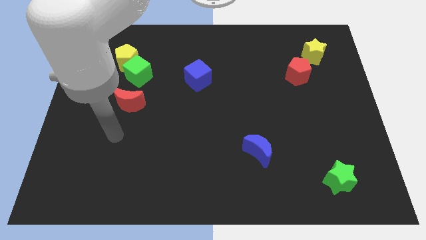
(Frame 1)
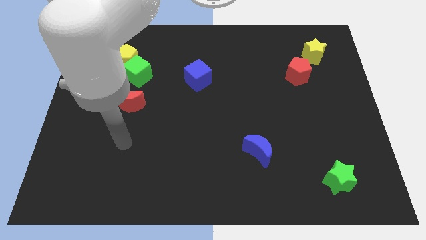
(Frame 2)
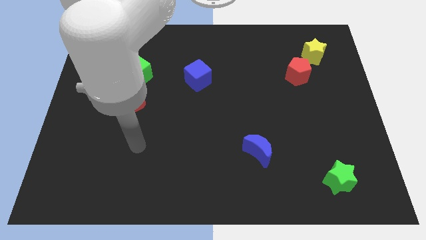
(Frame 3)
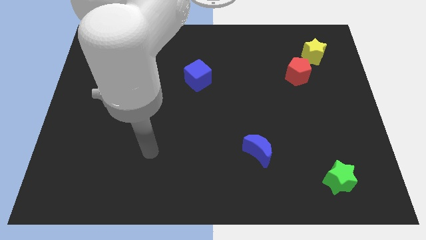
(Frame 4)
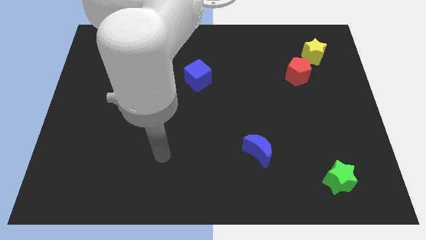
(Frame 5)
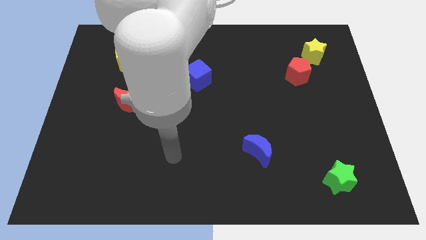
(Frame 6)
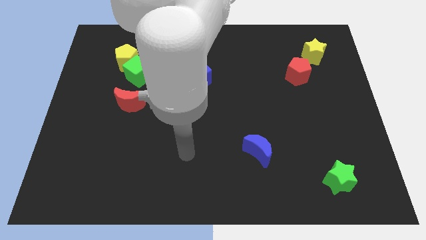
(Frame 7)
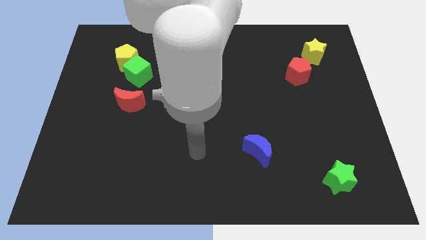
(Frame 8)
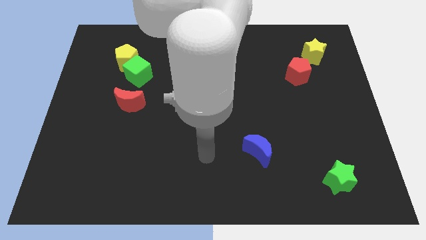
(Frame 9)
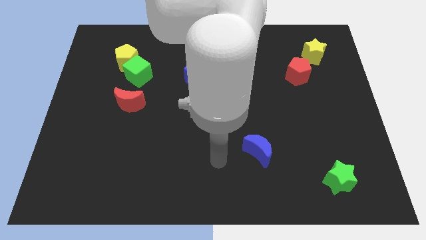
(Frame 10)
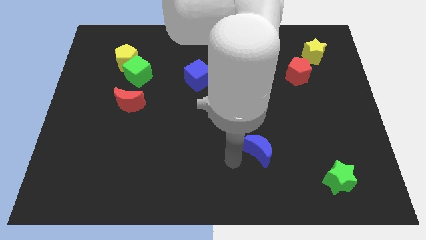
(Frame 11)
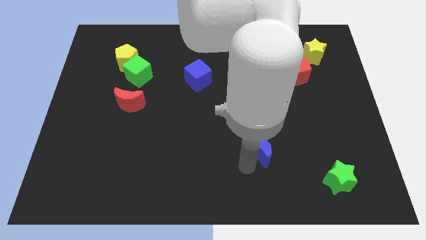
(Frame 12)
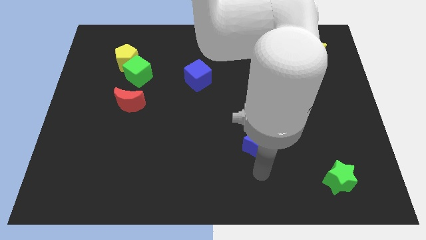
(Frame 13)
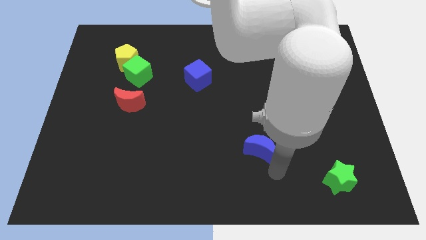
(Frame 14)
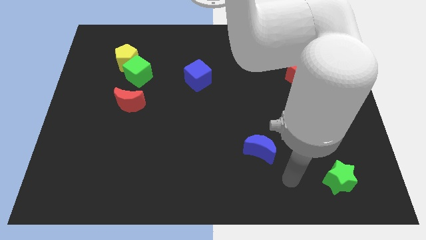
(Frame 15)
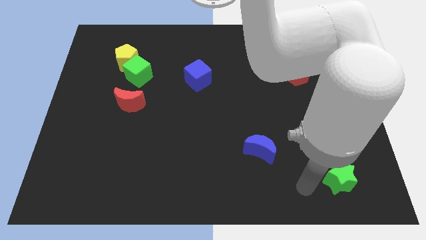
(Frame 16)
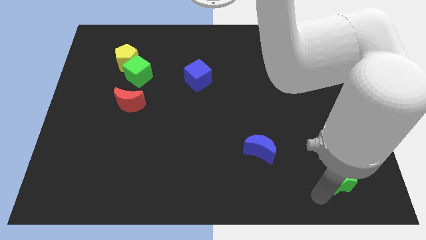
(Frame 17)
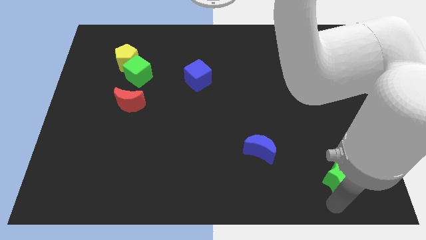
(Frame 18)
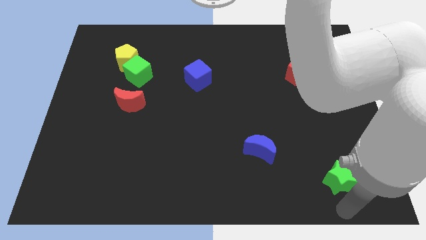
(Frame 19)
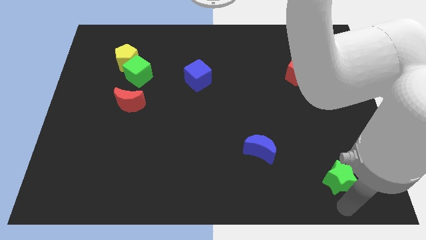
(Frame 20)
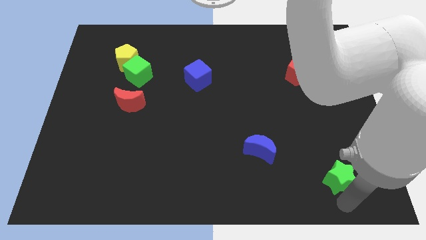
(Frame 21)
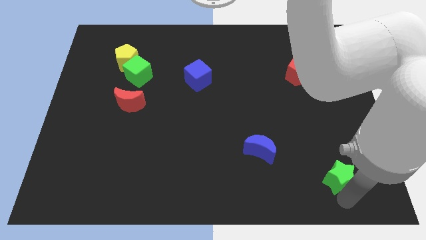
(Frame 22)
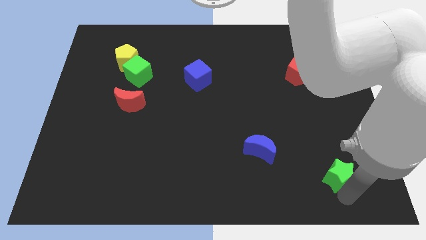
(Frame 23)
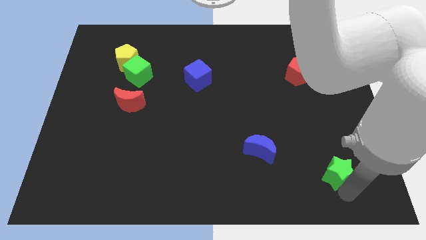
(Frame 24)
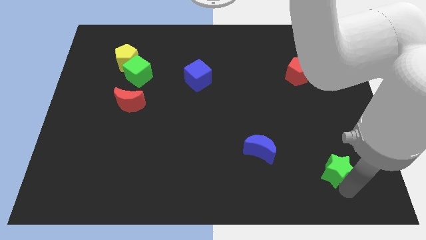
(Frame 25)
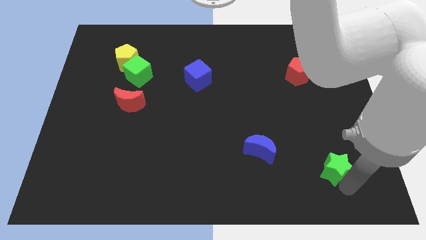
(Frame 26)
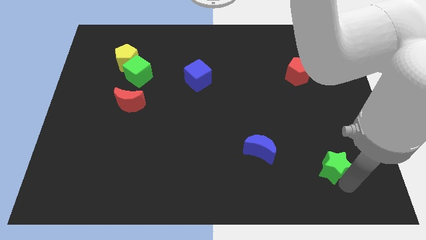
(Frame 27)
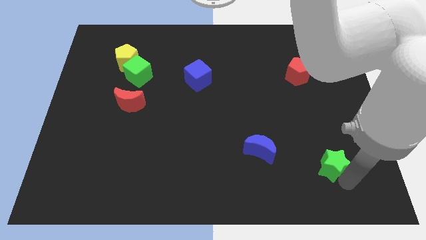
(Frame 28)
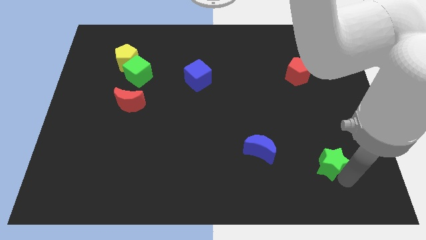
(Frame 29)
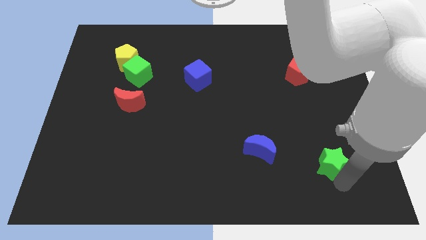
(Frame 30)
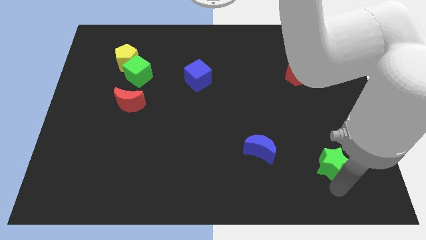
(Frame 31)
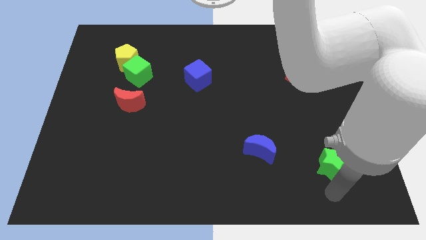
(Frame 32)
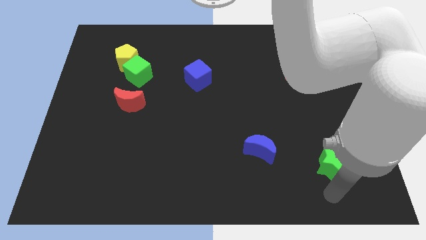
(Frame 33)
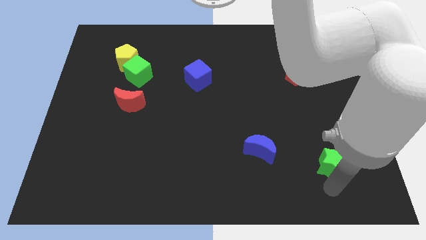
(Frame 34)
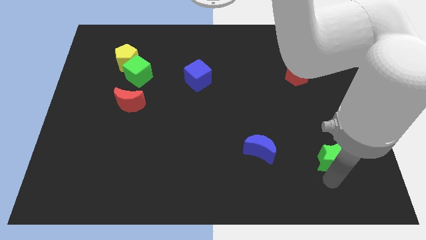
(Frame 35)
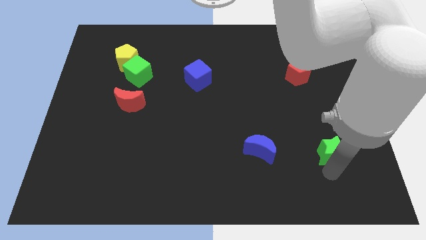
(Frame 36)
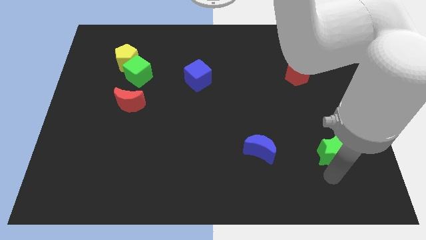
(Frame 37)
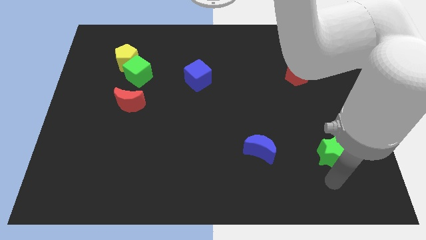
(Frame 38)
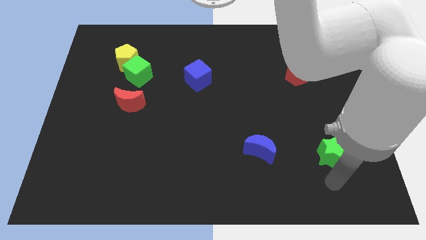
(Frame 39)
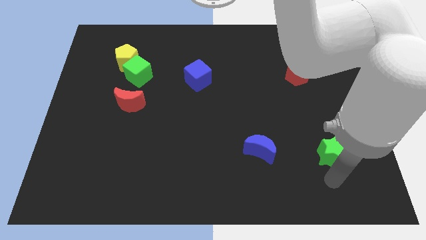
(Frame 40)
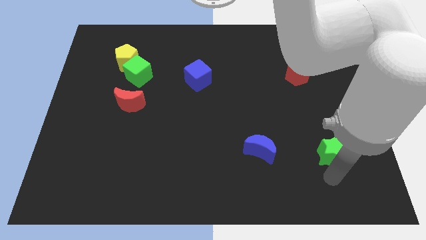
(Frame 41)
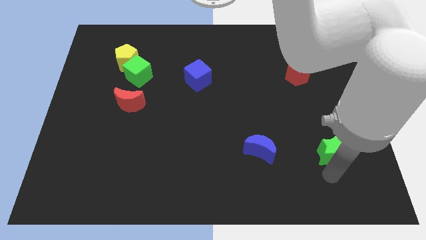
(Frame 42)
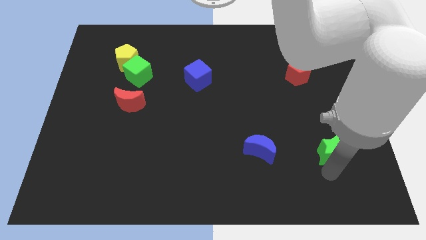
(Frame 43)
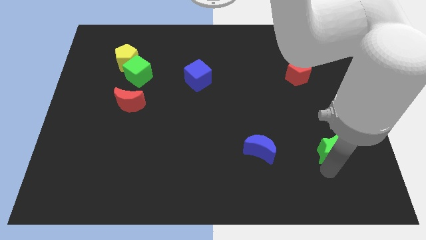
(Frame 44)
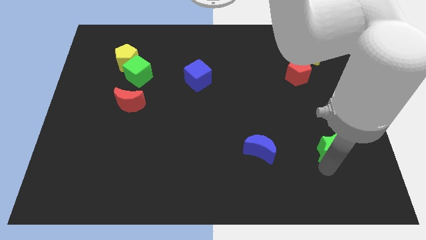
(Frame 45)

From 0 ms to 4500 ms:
slightly slide the green star up

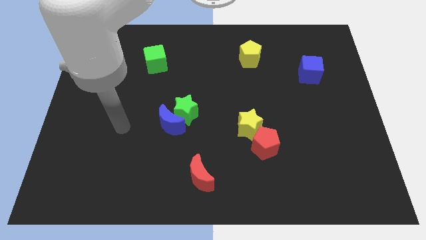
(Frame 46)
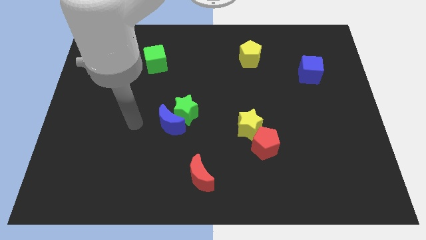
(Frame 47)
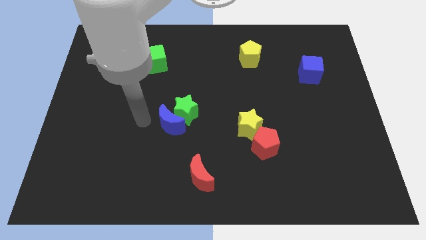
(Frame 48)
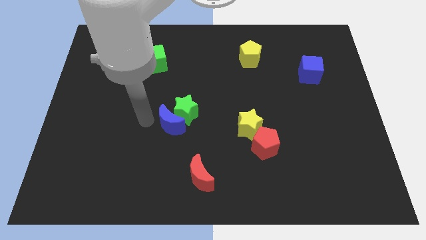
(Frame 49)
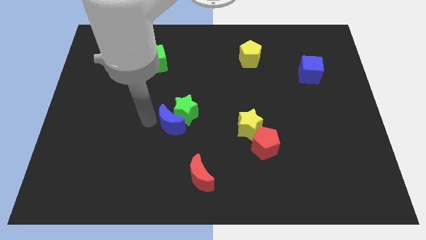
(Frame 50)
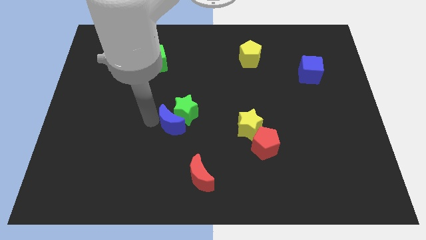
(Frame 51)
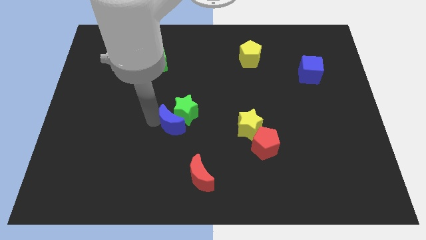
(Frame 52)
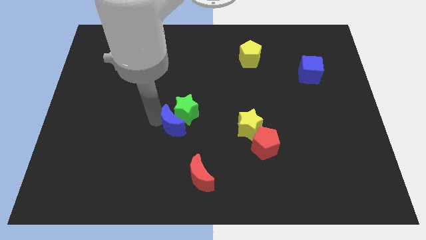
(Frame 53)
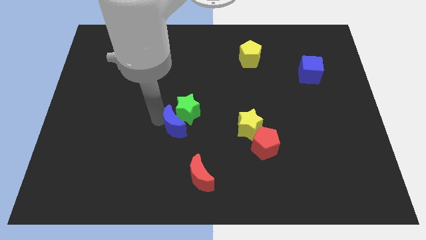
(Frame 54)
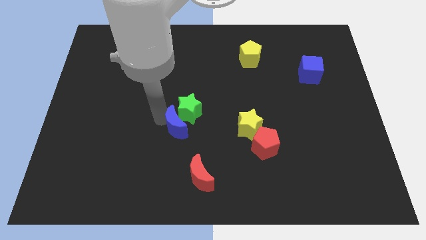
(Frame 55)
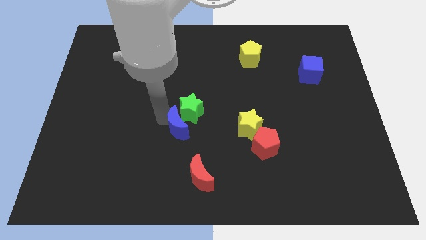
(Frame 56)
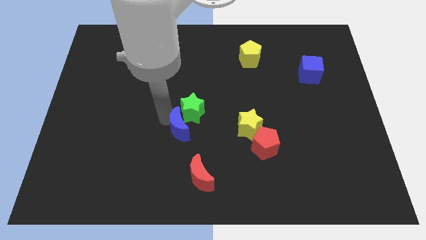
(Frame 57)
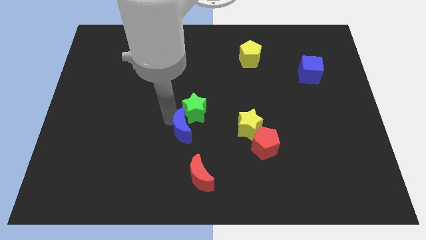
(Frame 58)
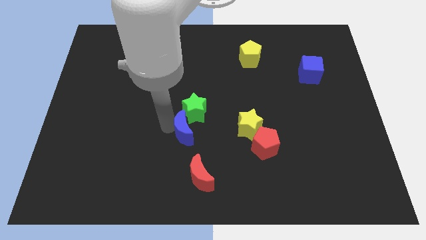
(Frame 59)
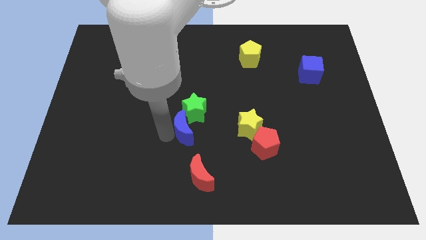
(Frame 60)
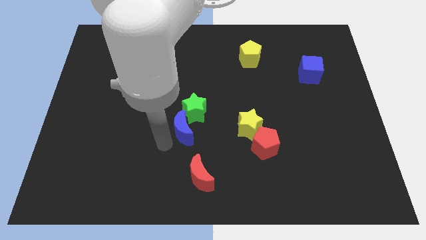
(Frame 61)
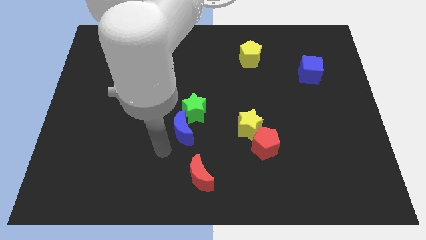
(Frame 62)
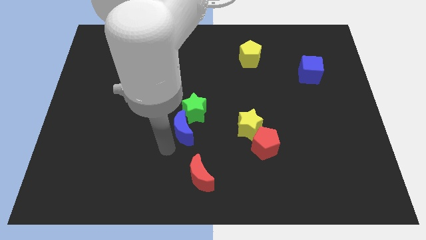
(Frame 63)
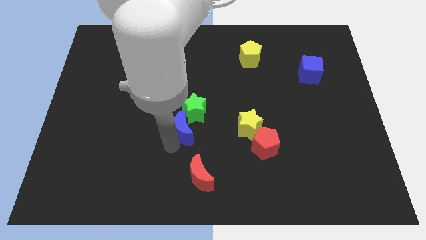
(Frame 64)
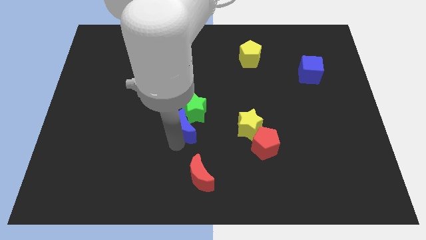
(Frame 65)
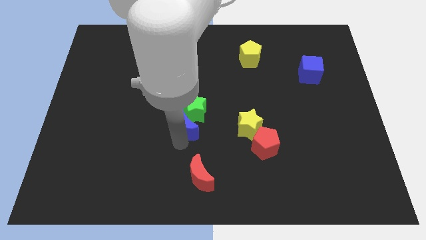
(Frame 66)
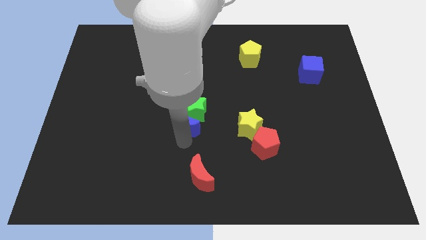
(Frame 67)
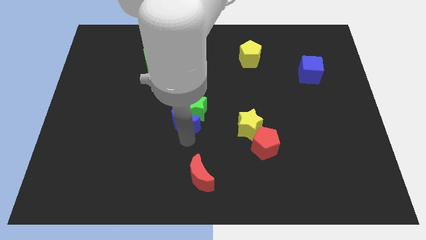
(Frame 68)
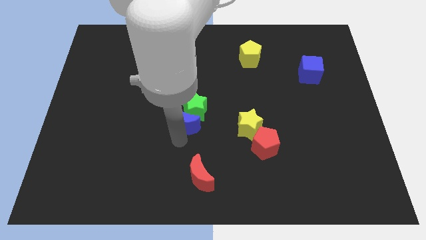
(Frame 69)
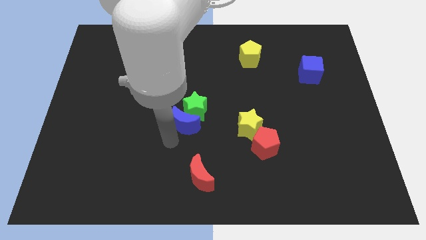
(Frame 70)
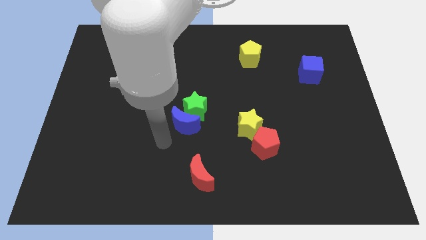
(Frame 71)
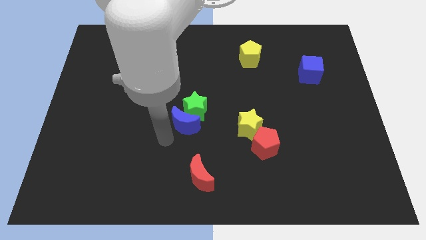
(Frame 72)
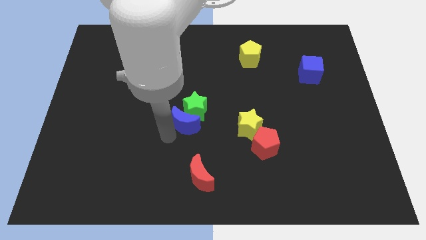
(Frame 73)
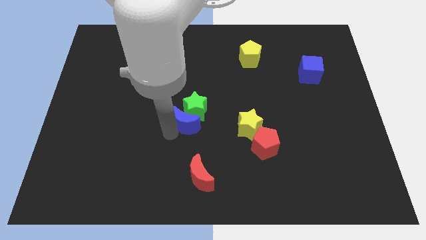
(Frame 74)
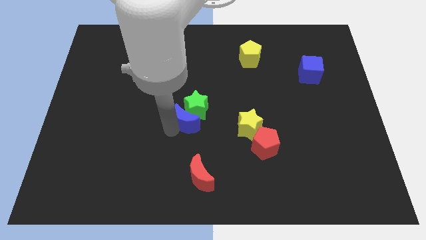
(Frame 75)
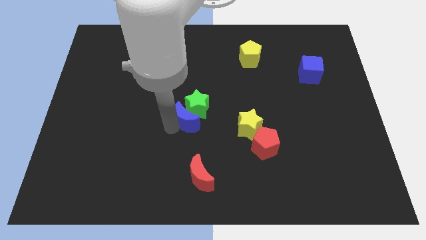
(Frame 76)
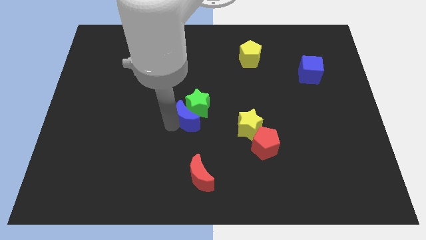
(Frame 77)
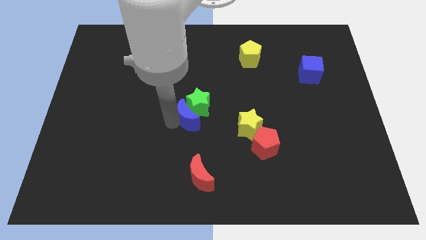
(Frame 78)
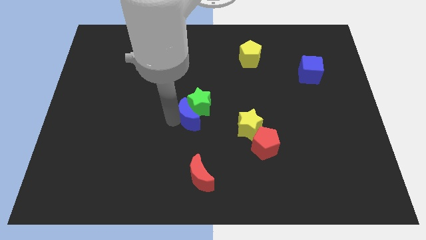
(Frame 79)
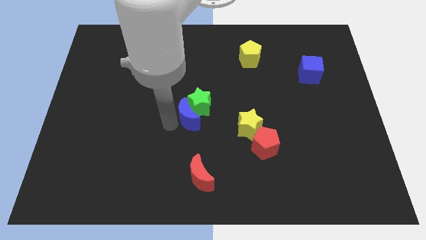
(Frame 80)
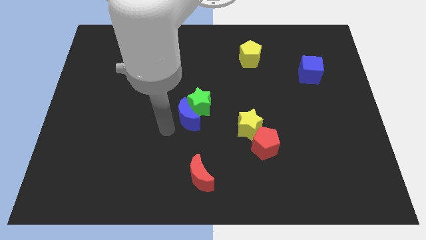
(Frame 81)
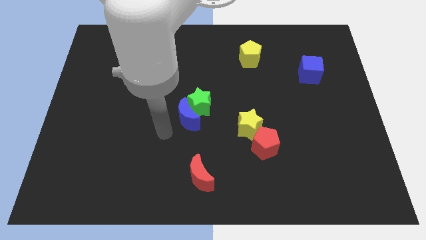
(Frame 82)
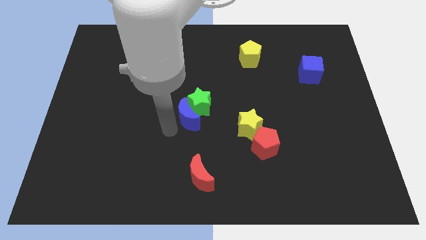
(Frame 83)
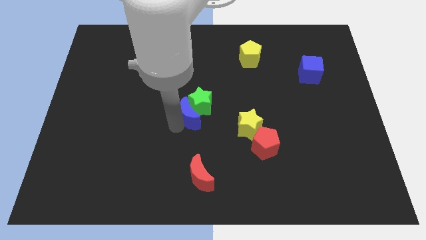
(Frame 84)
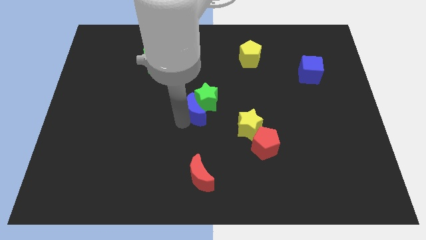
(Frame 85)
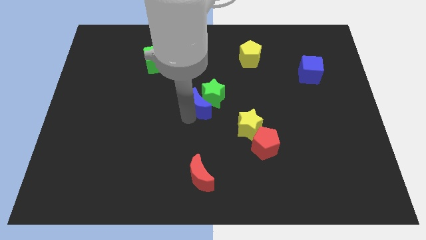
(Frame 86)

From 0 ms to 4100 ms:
push the blue moon somewhat upwards and to the right
